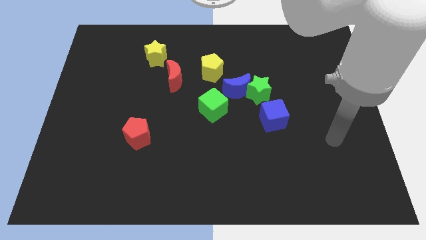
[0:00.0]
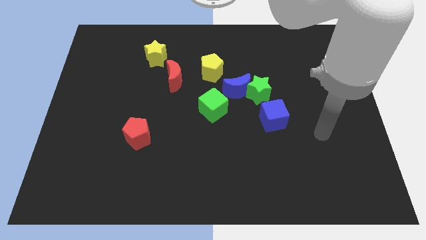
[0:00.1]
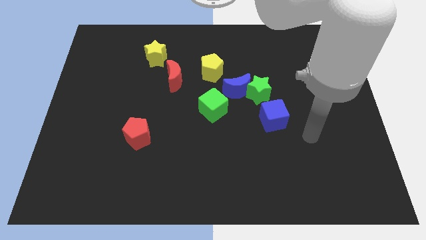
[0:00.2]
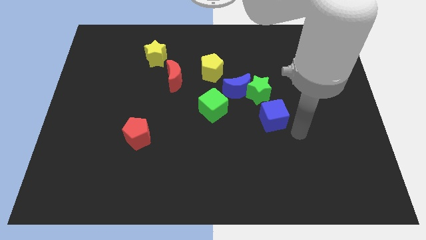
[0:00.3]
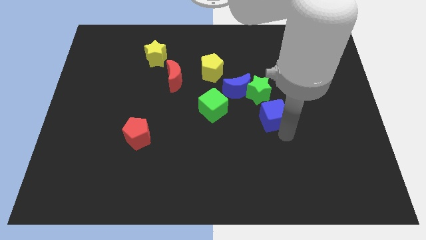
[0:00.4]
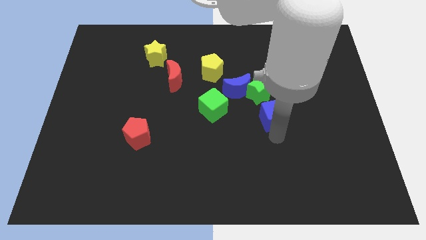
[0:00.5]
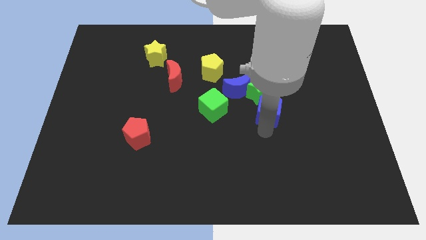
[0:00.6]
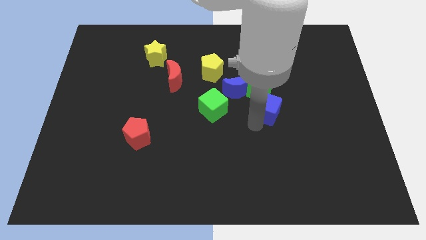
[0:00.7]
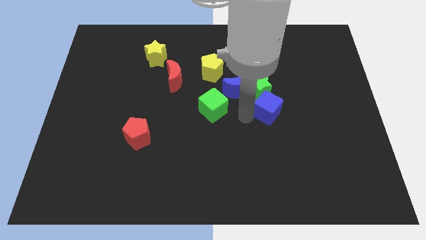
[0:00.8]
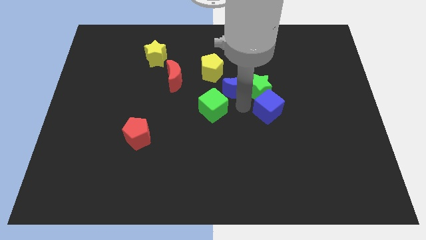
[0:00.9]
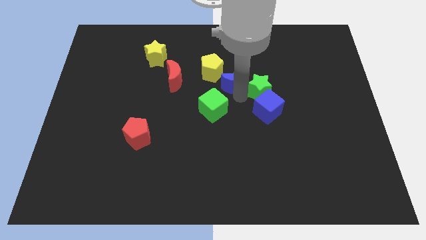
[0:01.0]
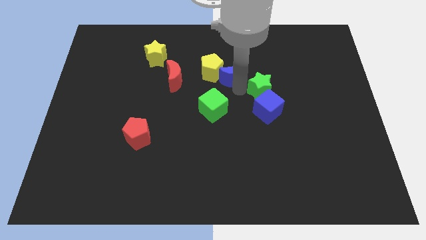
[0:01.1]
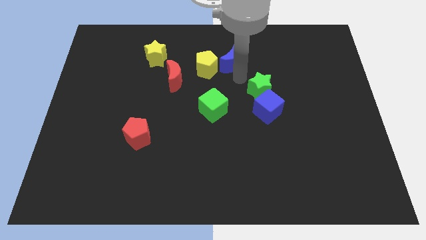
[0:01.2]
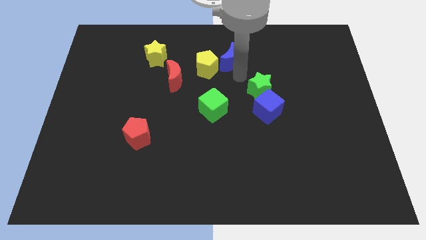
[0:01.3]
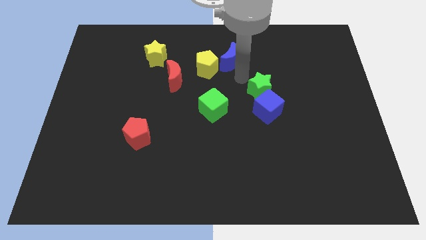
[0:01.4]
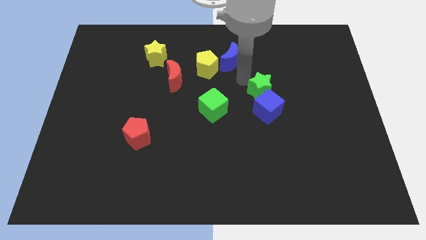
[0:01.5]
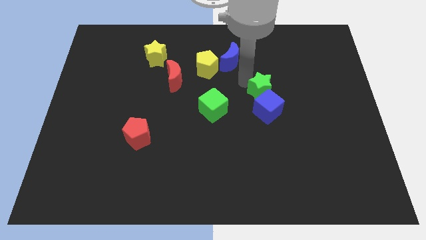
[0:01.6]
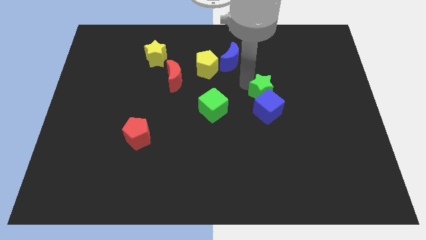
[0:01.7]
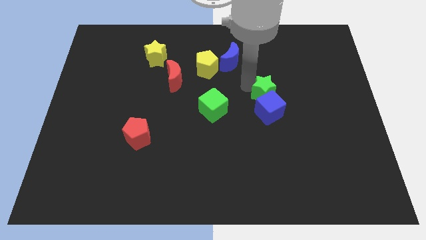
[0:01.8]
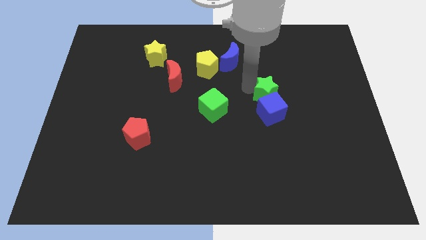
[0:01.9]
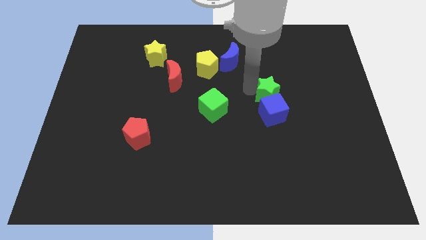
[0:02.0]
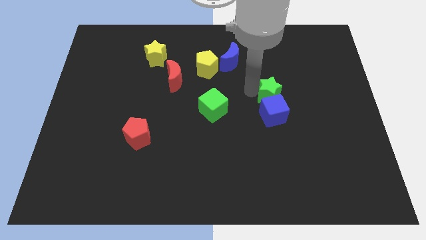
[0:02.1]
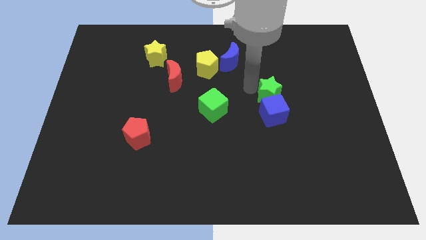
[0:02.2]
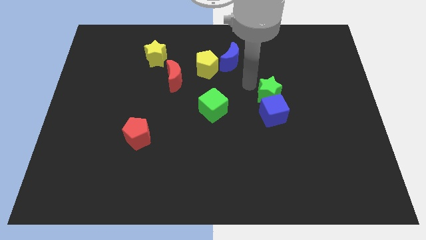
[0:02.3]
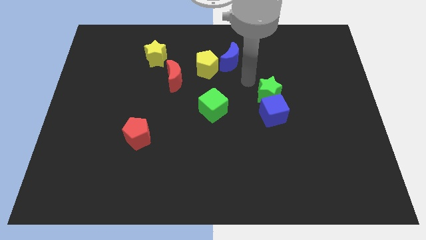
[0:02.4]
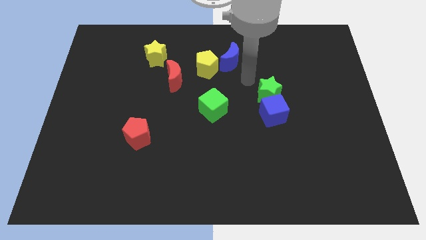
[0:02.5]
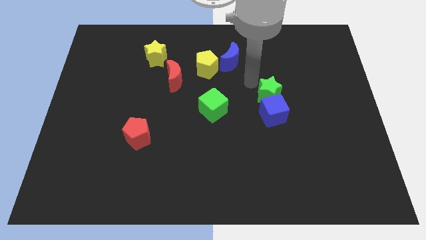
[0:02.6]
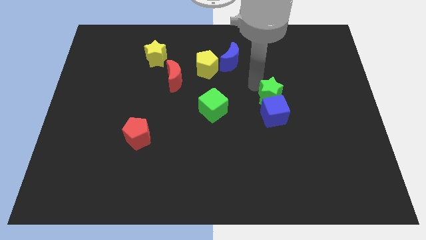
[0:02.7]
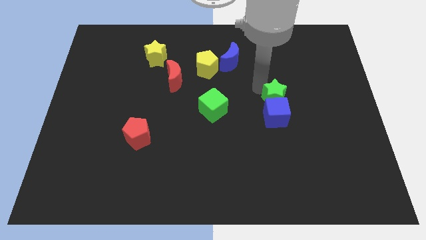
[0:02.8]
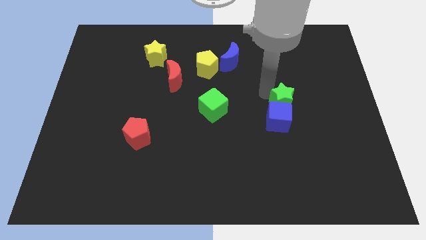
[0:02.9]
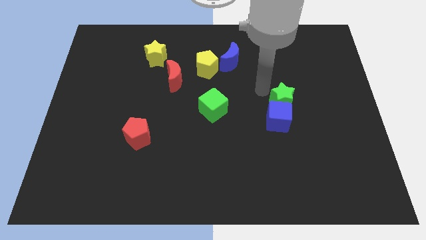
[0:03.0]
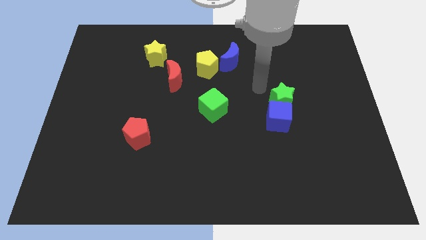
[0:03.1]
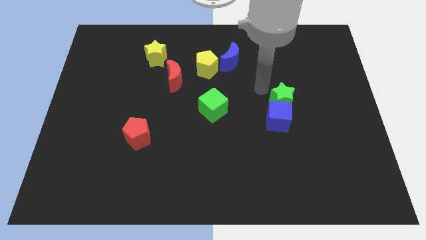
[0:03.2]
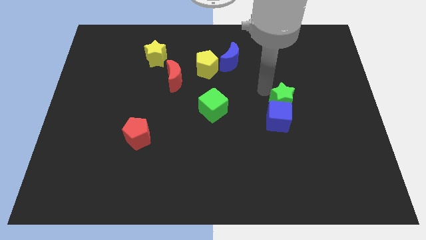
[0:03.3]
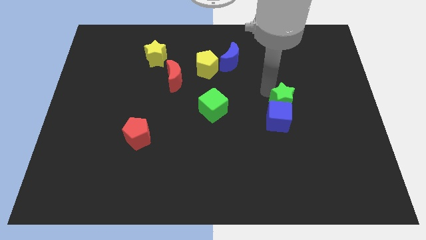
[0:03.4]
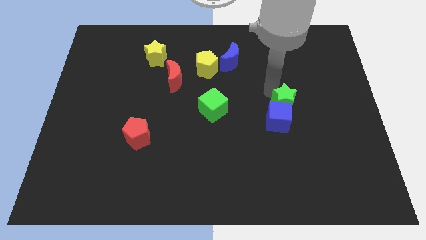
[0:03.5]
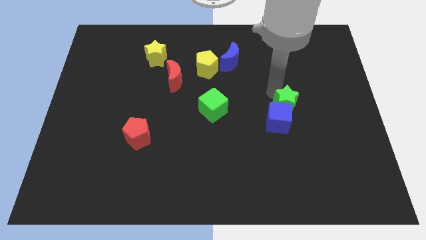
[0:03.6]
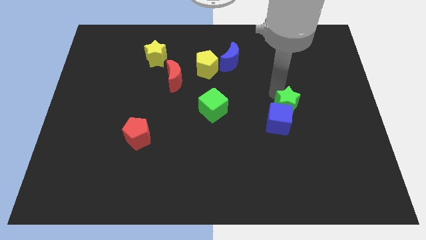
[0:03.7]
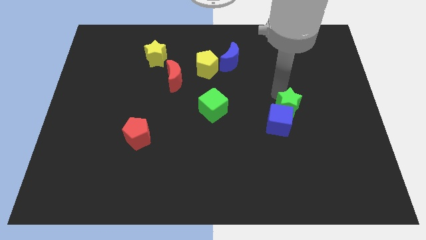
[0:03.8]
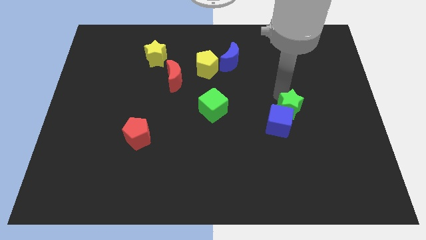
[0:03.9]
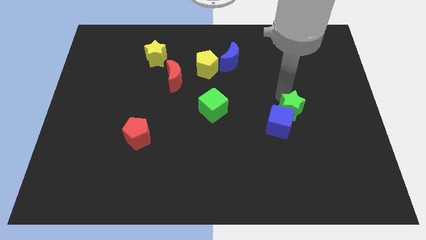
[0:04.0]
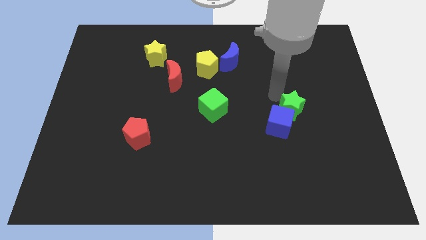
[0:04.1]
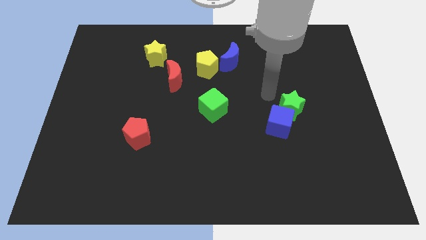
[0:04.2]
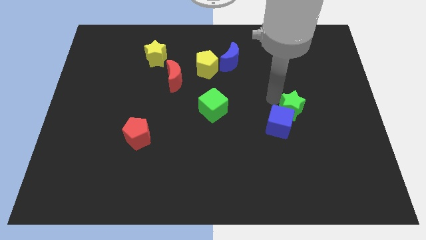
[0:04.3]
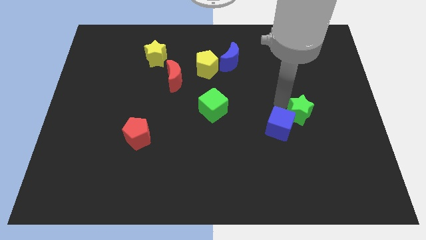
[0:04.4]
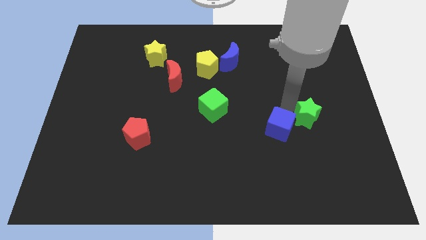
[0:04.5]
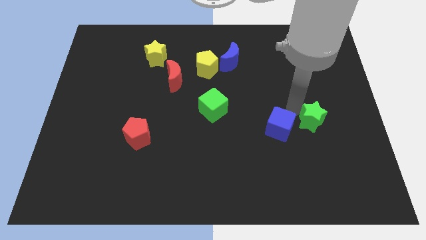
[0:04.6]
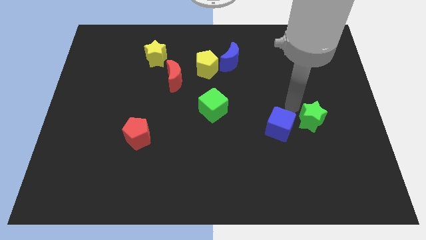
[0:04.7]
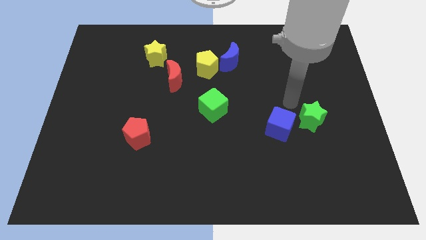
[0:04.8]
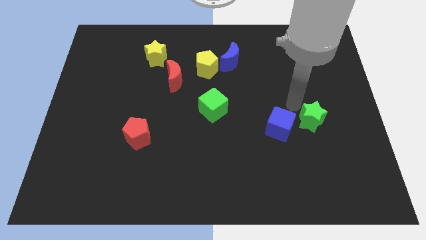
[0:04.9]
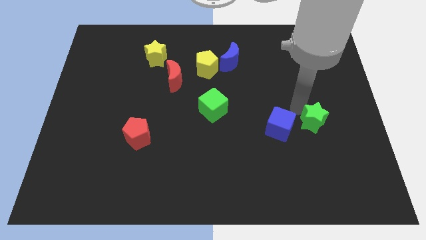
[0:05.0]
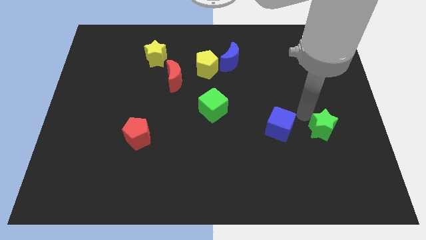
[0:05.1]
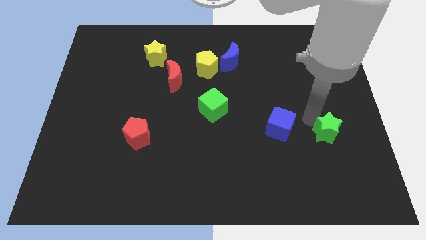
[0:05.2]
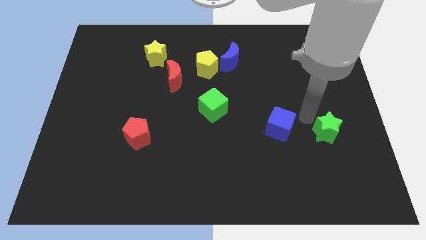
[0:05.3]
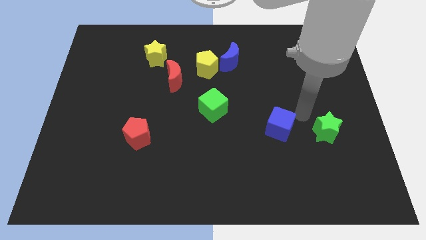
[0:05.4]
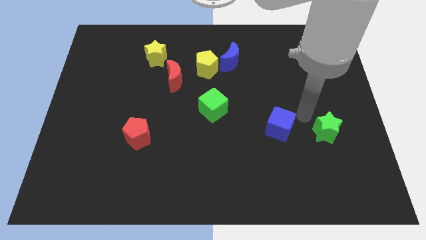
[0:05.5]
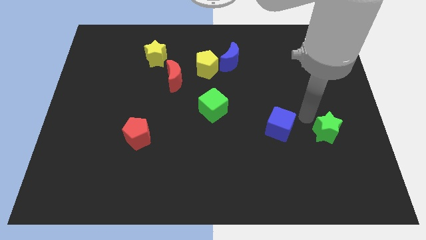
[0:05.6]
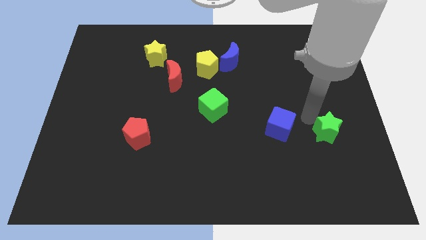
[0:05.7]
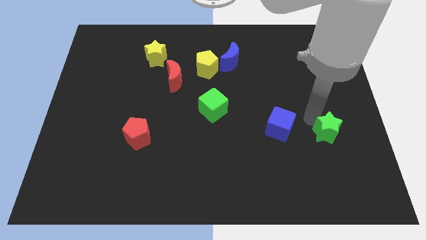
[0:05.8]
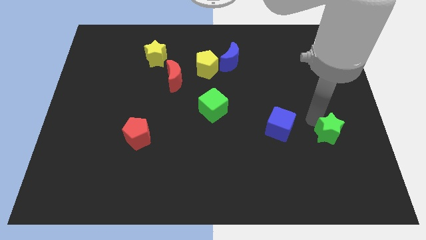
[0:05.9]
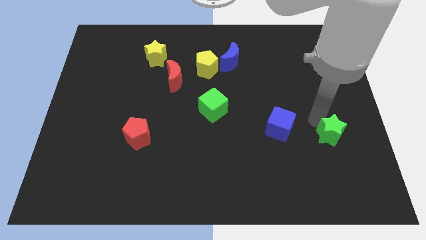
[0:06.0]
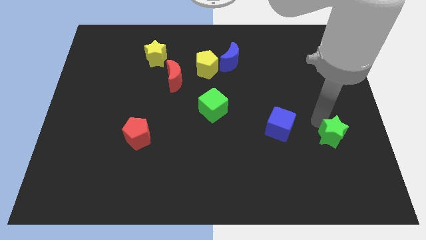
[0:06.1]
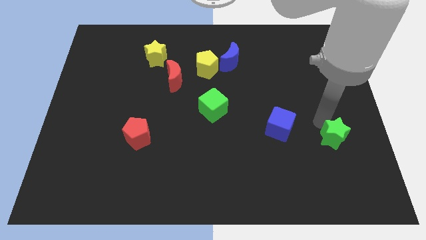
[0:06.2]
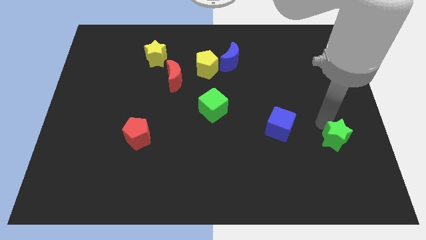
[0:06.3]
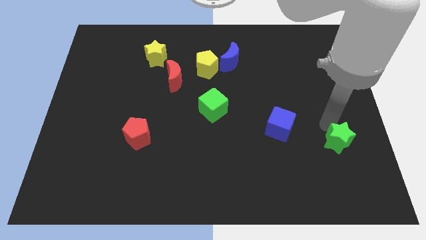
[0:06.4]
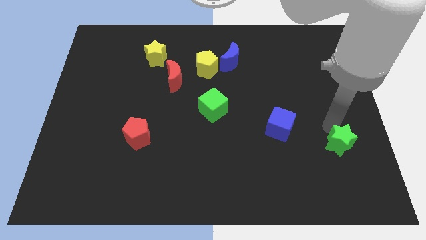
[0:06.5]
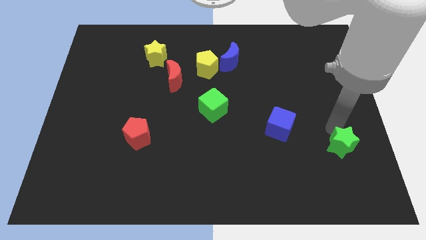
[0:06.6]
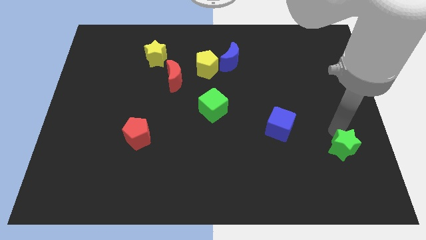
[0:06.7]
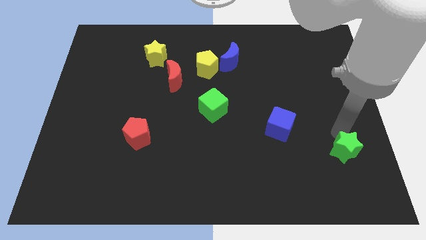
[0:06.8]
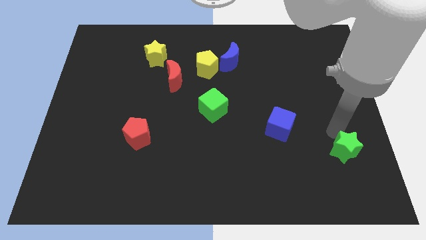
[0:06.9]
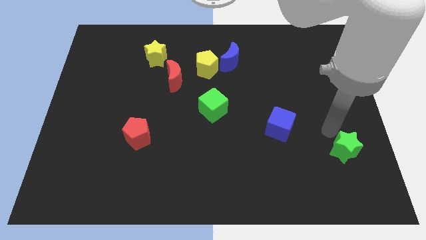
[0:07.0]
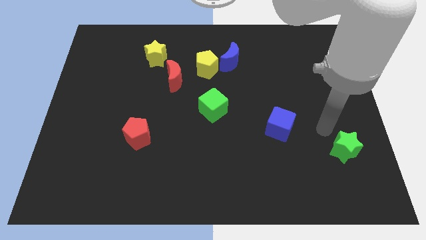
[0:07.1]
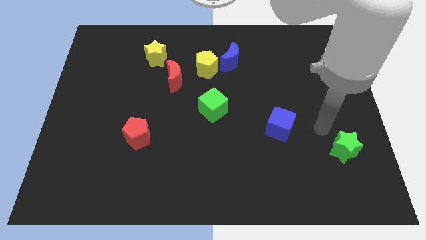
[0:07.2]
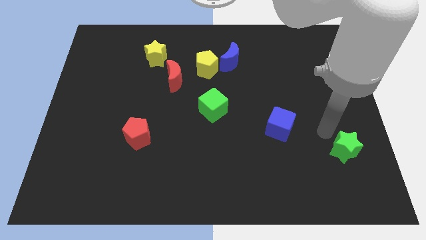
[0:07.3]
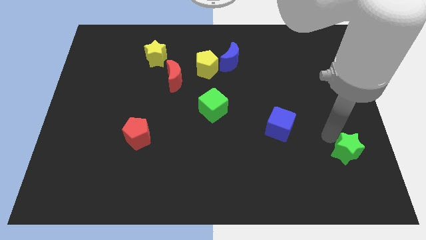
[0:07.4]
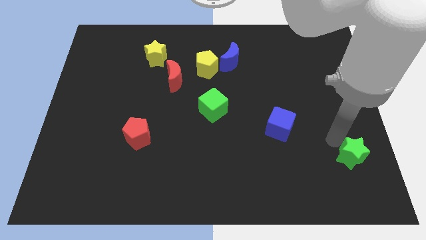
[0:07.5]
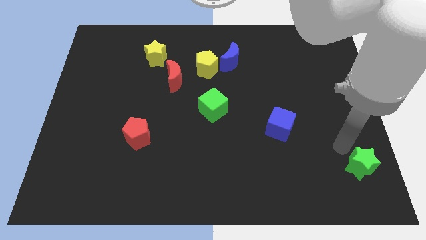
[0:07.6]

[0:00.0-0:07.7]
move the green star to the bottom right corner
